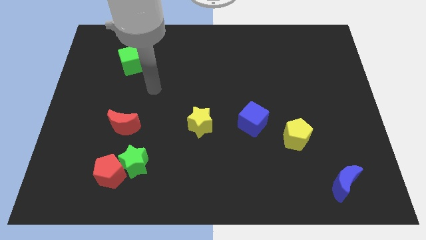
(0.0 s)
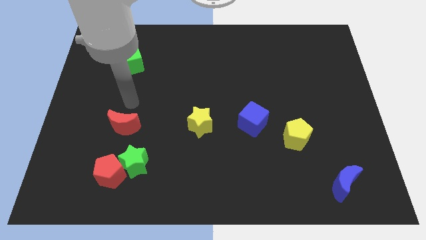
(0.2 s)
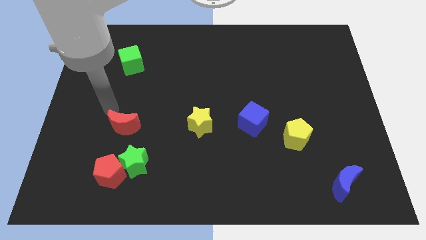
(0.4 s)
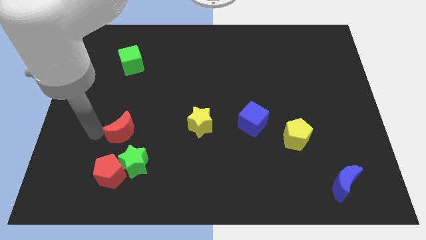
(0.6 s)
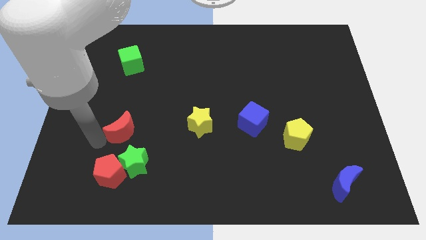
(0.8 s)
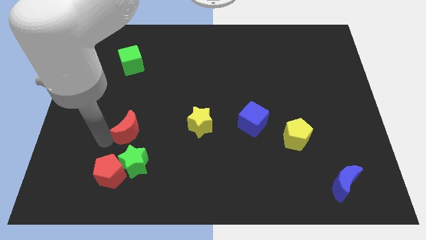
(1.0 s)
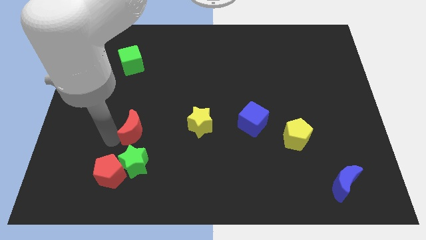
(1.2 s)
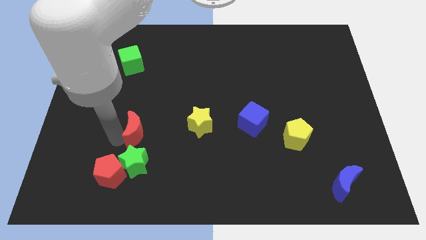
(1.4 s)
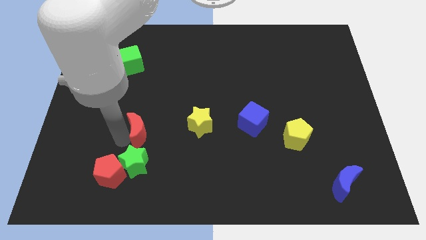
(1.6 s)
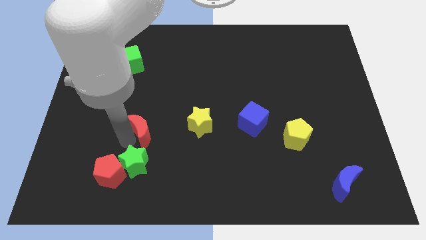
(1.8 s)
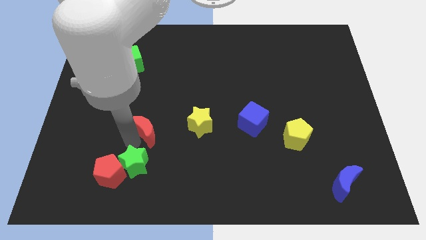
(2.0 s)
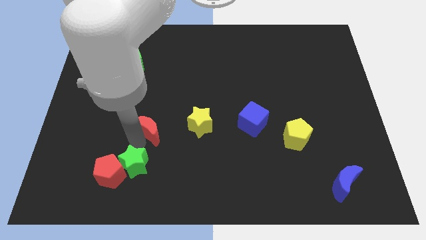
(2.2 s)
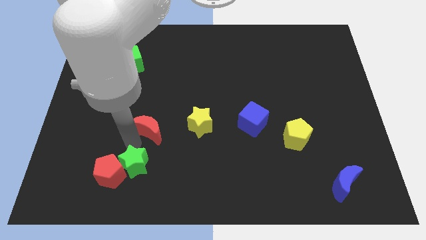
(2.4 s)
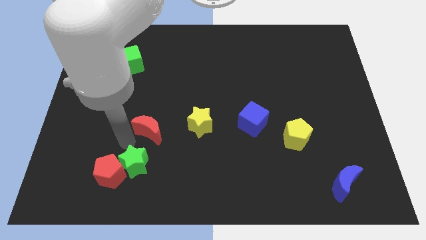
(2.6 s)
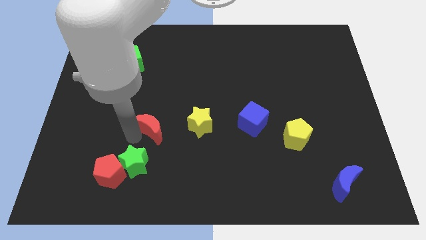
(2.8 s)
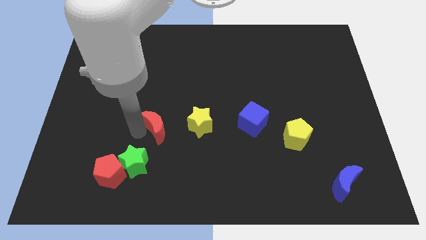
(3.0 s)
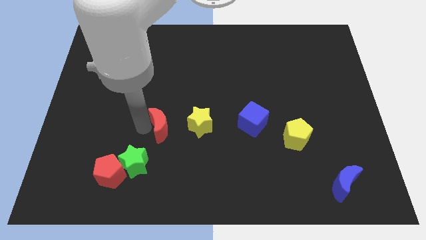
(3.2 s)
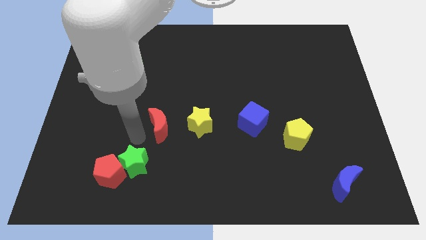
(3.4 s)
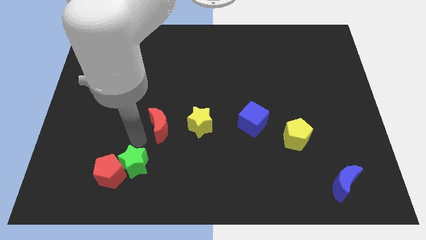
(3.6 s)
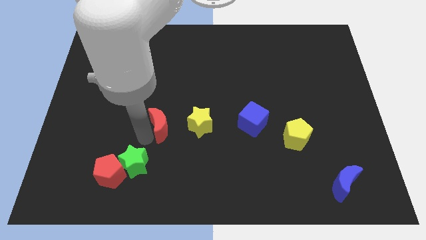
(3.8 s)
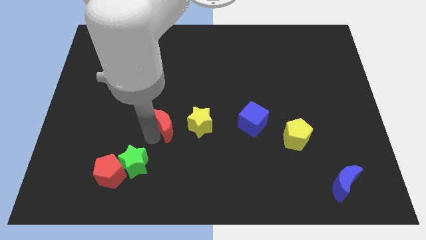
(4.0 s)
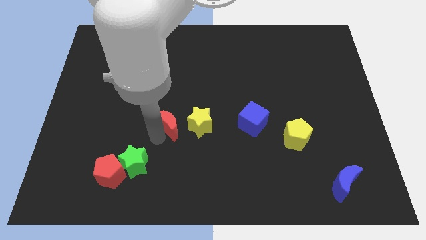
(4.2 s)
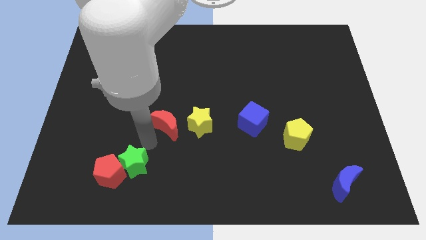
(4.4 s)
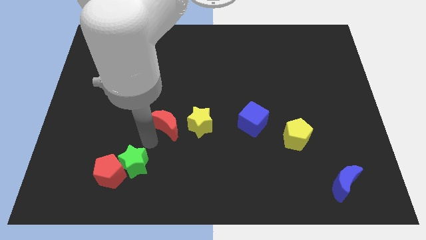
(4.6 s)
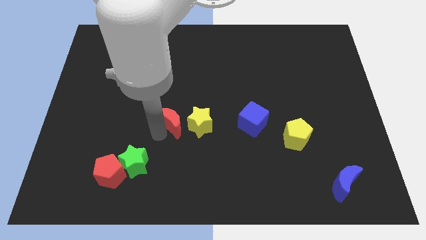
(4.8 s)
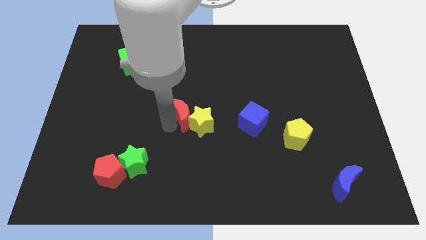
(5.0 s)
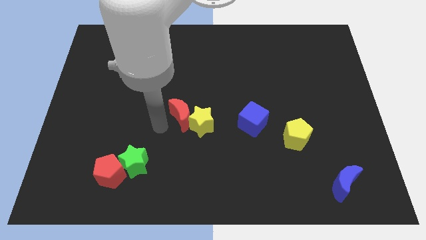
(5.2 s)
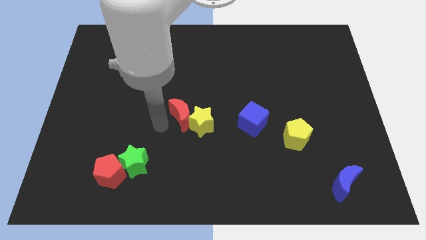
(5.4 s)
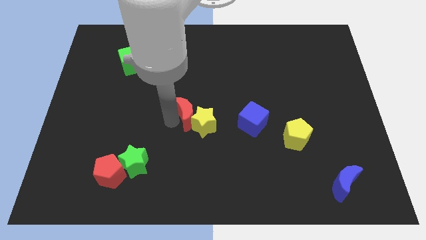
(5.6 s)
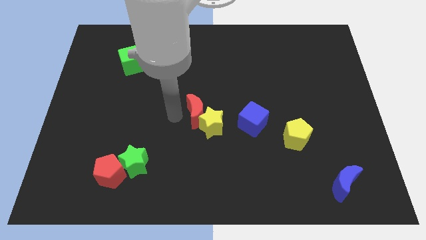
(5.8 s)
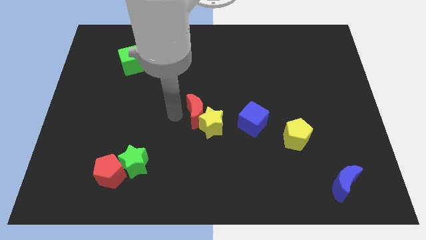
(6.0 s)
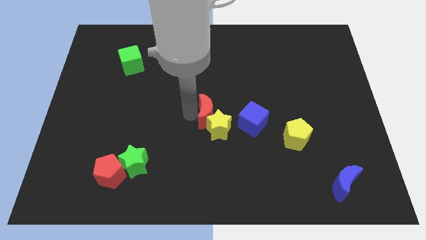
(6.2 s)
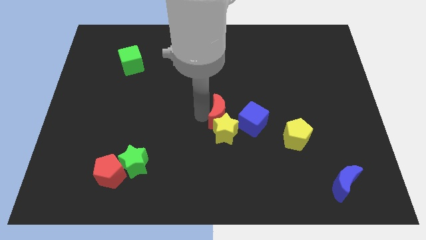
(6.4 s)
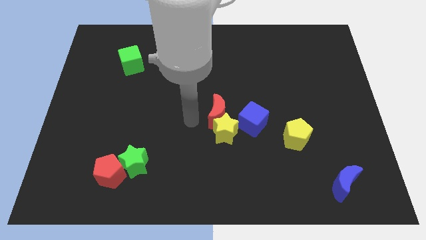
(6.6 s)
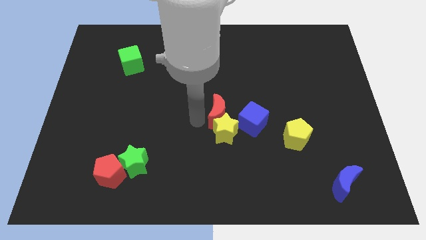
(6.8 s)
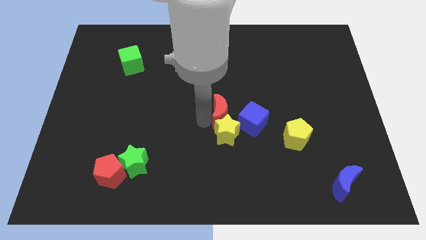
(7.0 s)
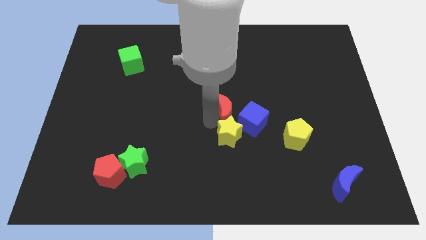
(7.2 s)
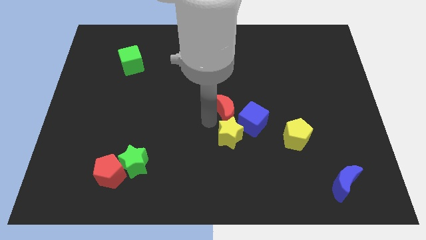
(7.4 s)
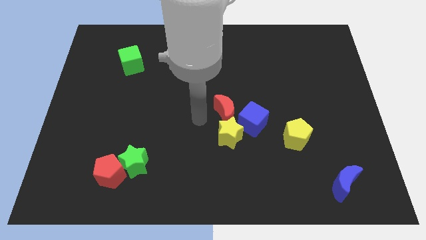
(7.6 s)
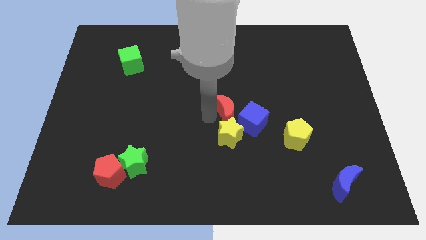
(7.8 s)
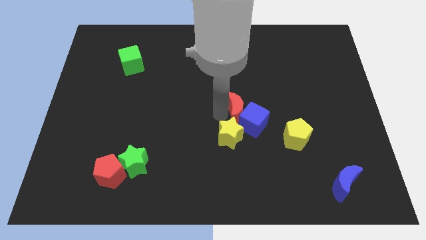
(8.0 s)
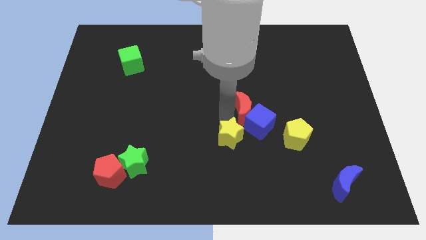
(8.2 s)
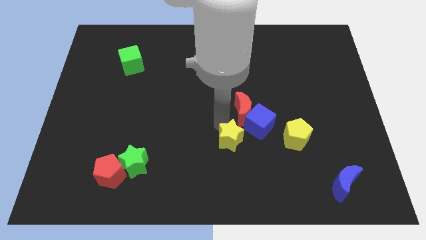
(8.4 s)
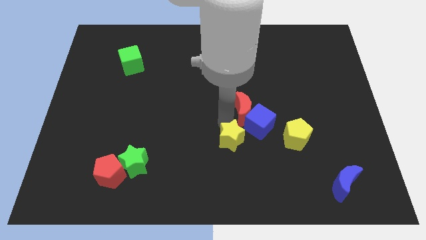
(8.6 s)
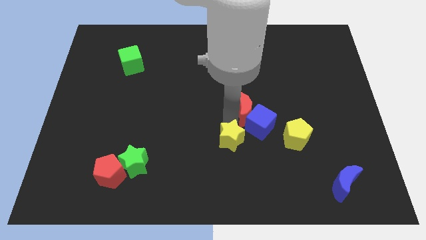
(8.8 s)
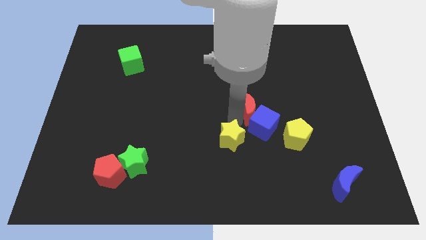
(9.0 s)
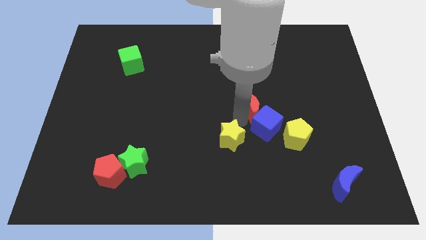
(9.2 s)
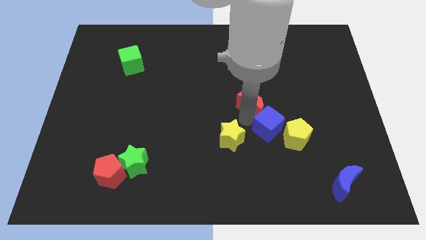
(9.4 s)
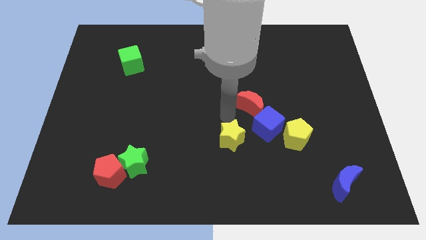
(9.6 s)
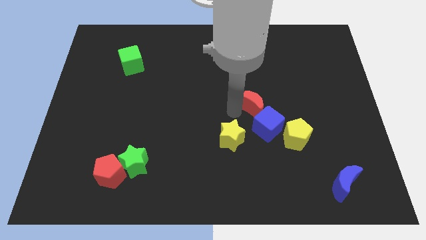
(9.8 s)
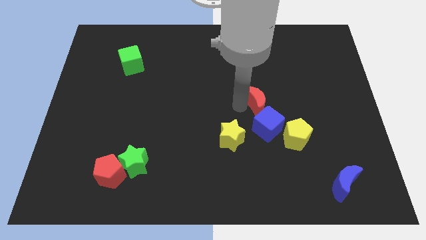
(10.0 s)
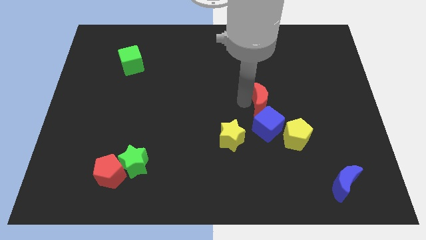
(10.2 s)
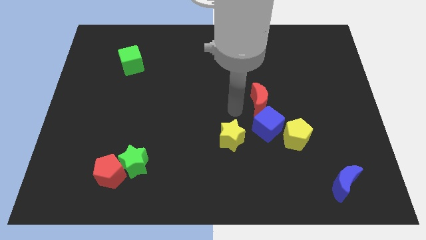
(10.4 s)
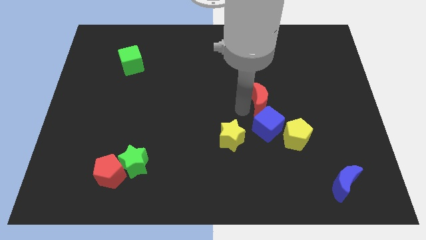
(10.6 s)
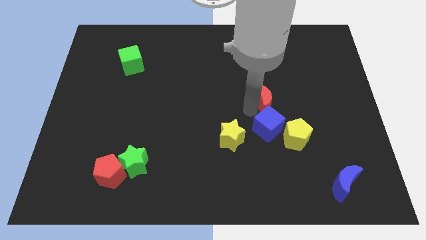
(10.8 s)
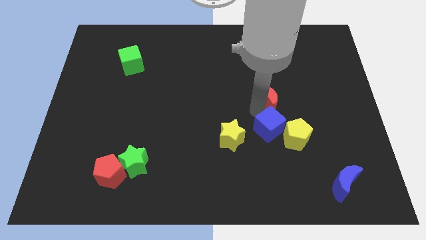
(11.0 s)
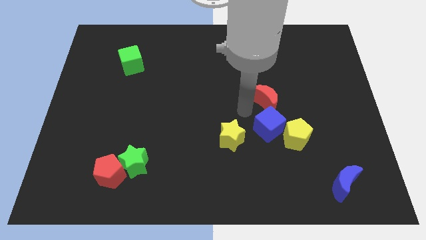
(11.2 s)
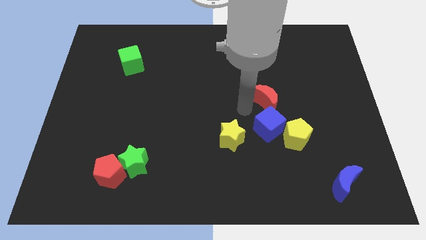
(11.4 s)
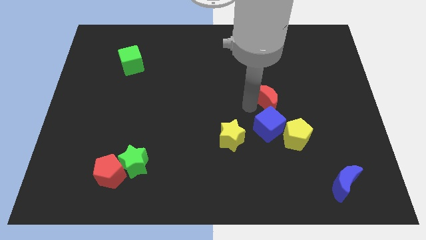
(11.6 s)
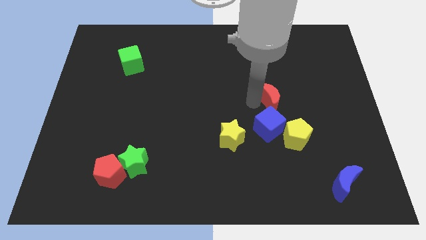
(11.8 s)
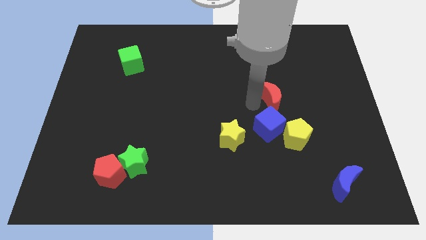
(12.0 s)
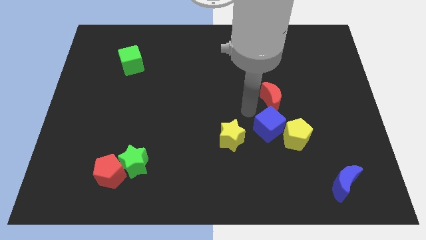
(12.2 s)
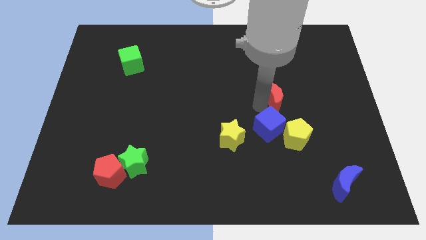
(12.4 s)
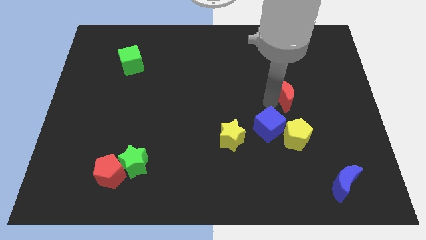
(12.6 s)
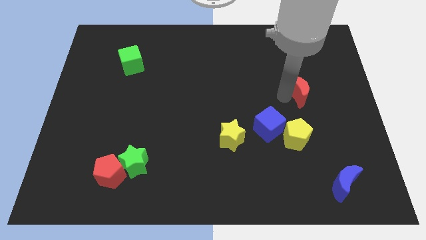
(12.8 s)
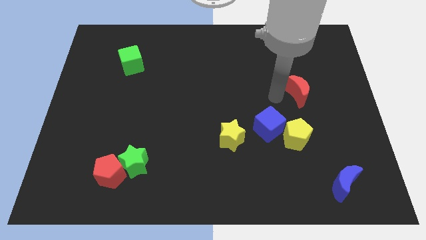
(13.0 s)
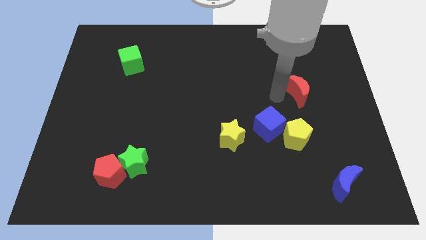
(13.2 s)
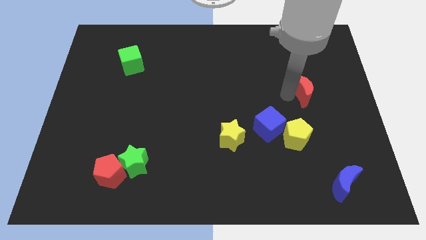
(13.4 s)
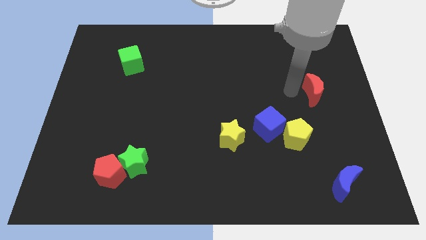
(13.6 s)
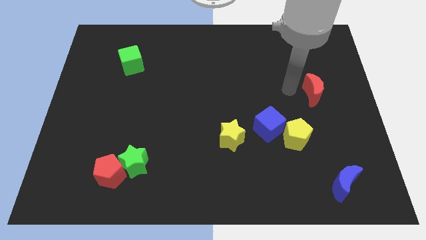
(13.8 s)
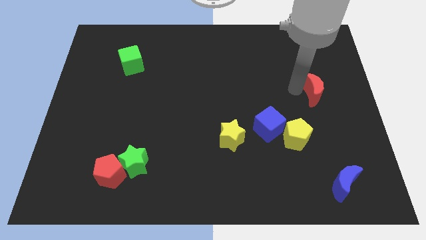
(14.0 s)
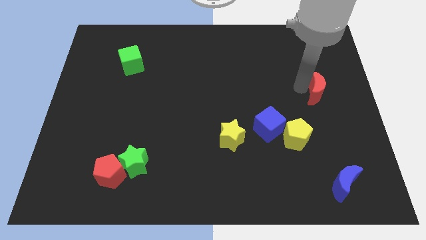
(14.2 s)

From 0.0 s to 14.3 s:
move the red moon to the right side of the board

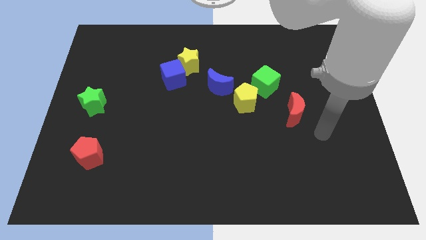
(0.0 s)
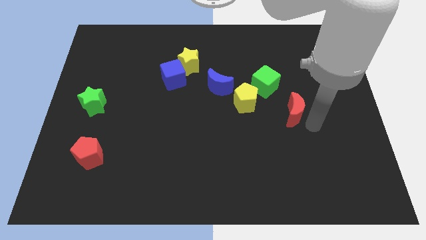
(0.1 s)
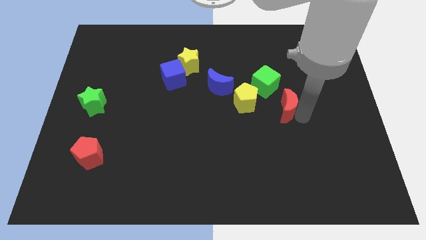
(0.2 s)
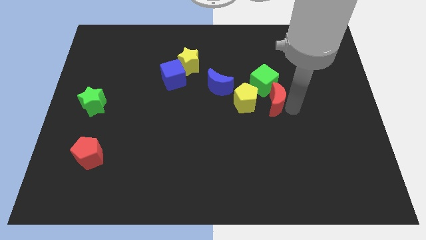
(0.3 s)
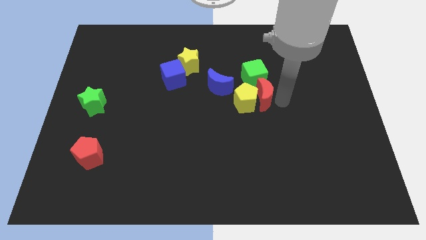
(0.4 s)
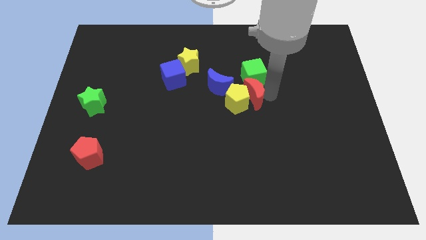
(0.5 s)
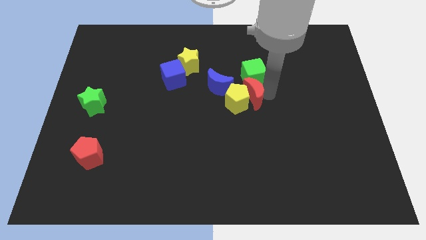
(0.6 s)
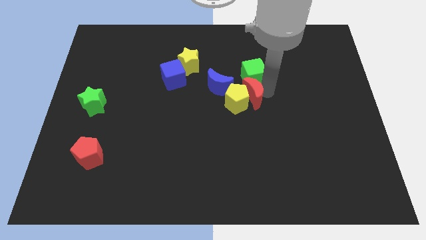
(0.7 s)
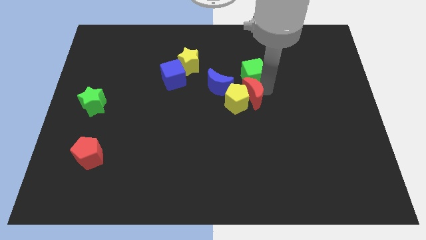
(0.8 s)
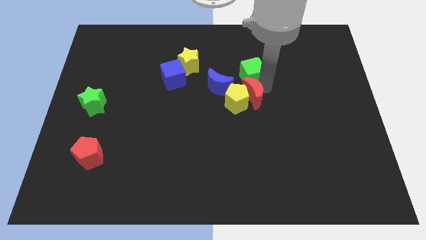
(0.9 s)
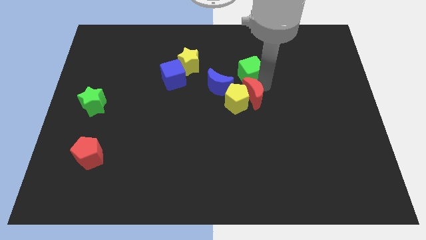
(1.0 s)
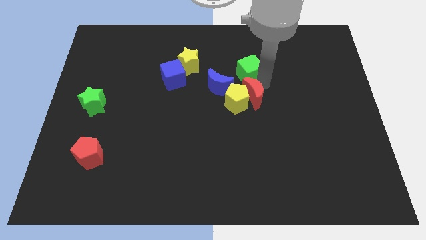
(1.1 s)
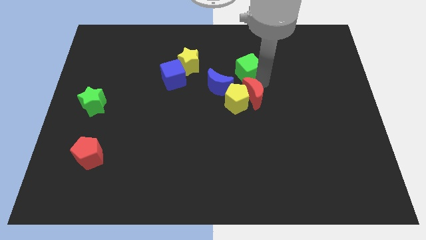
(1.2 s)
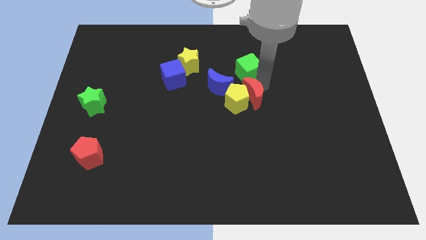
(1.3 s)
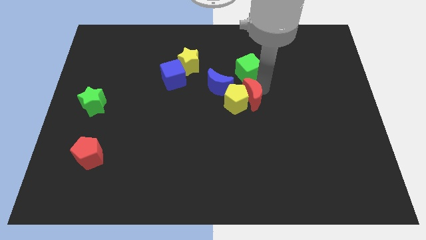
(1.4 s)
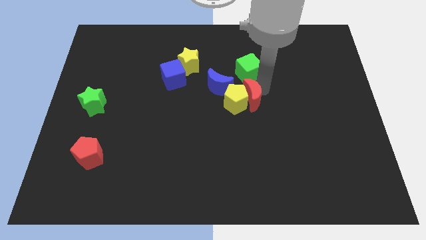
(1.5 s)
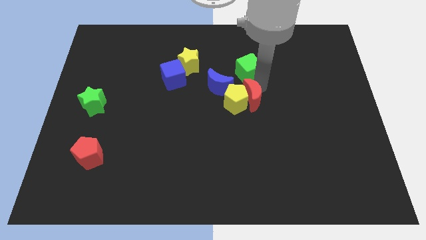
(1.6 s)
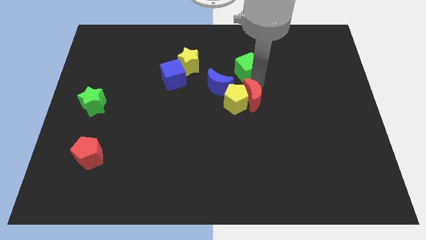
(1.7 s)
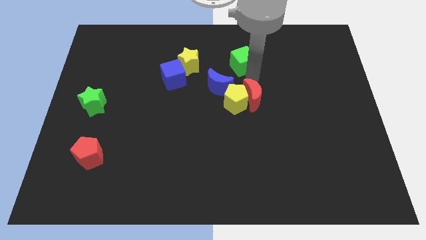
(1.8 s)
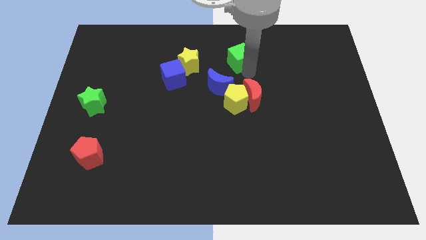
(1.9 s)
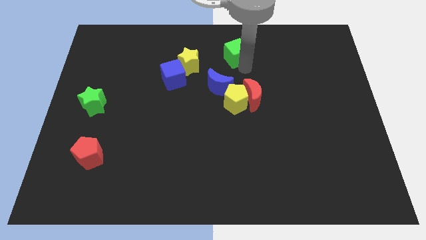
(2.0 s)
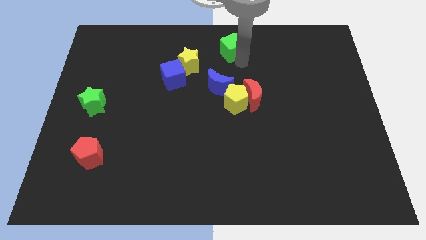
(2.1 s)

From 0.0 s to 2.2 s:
push the green cube to the towards your base
